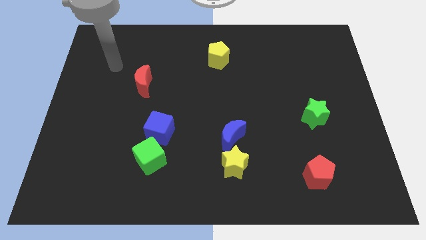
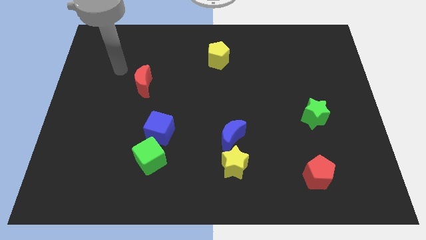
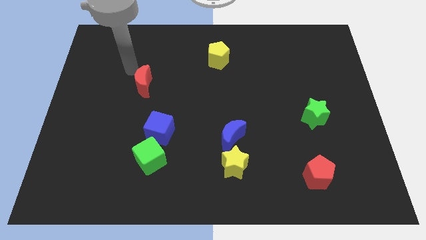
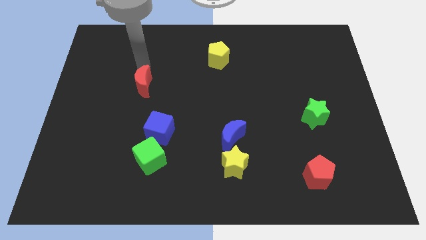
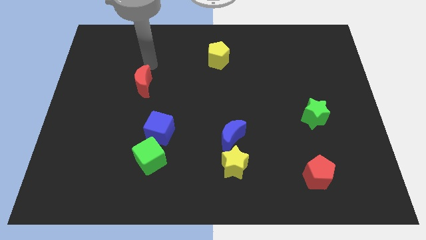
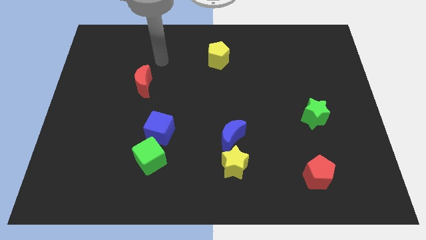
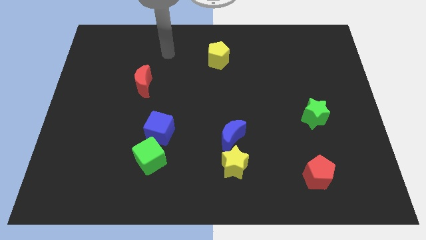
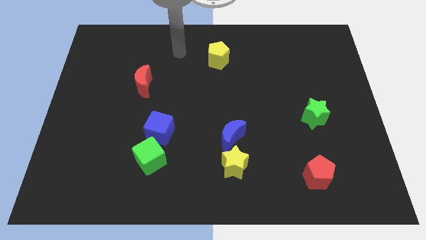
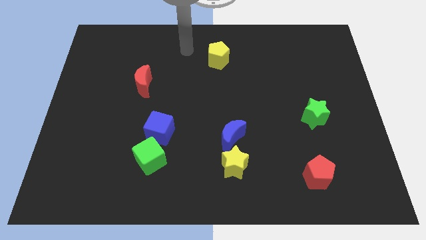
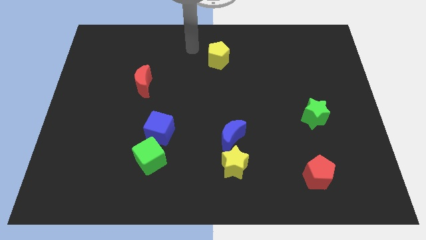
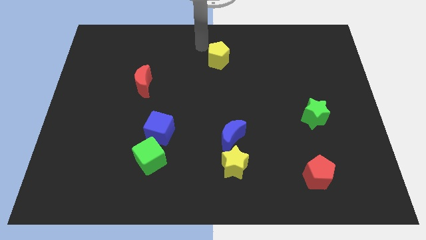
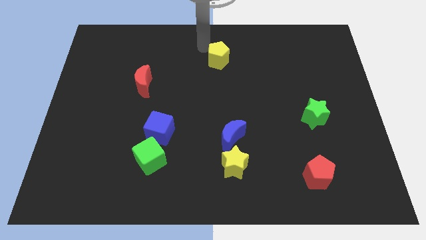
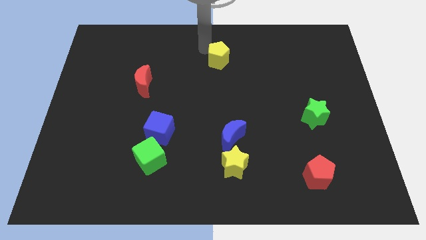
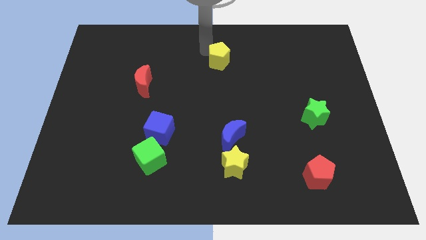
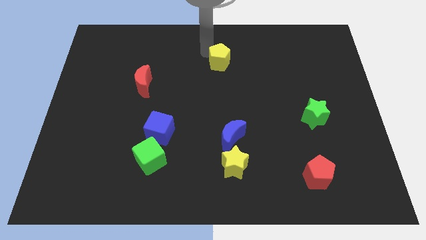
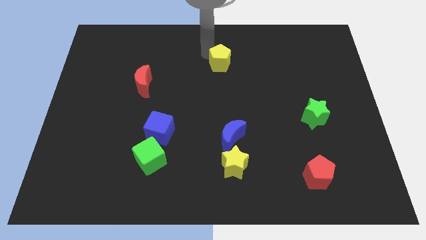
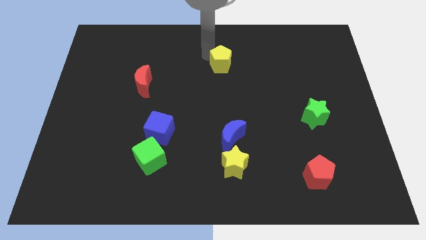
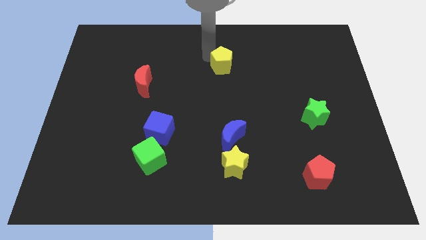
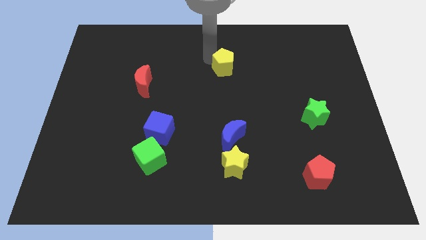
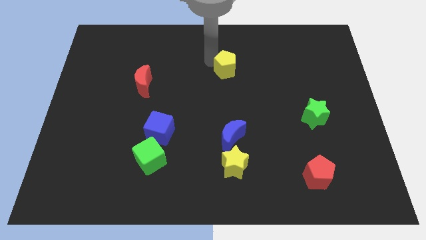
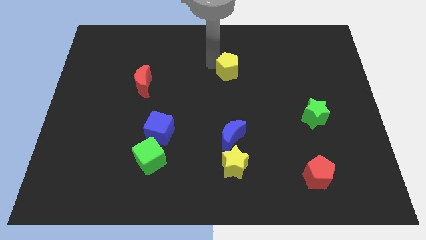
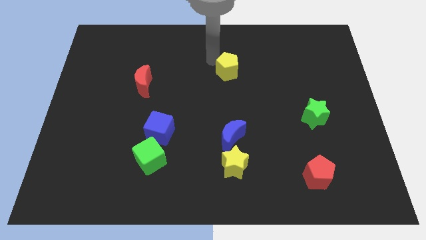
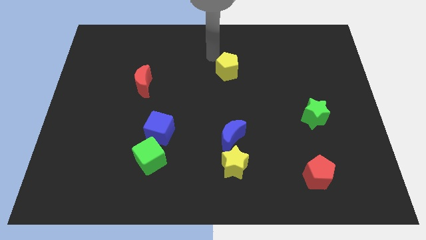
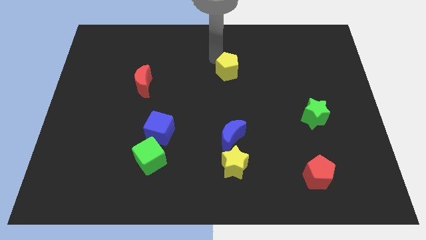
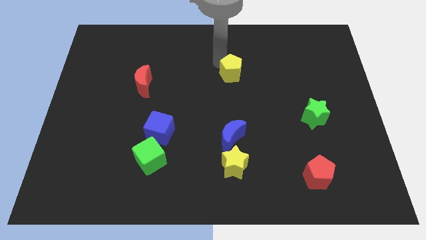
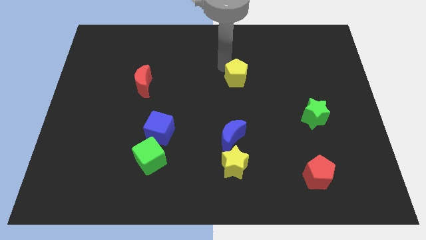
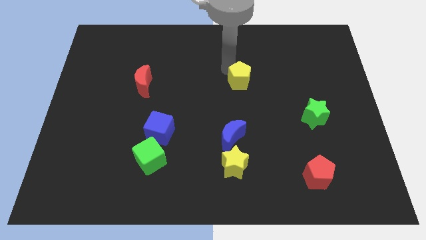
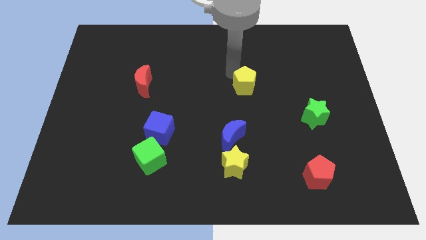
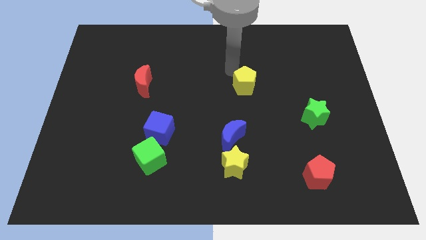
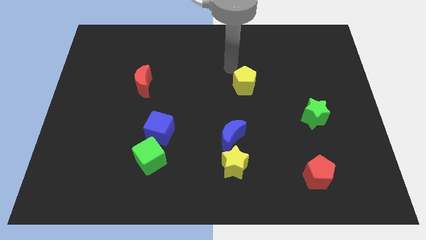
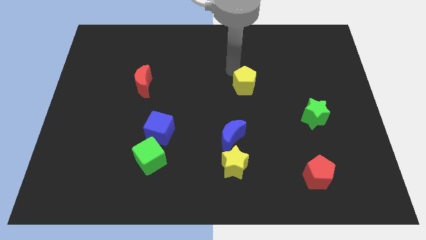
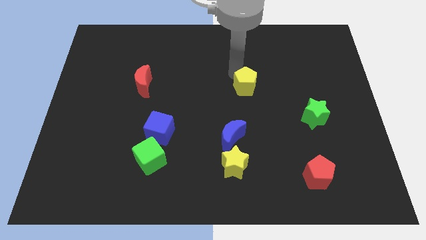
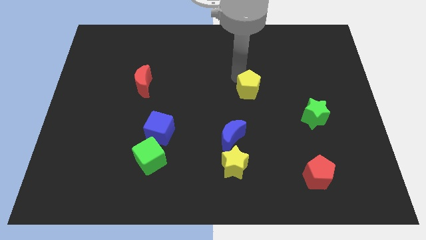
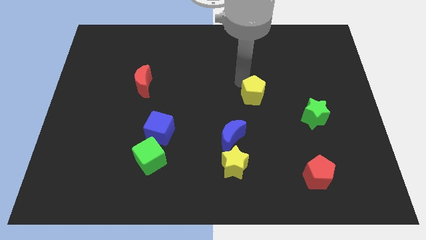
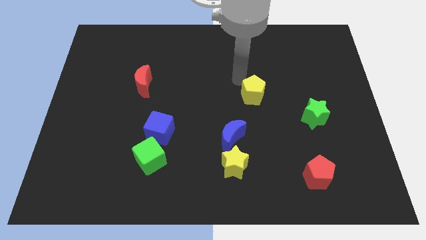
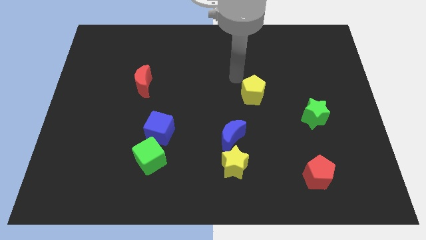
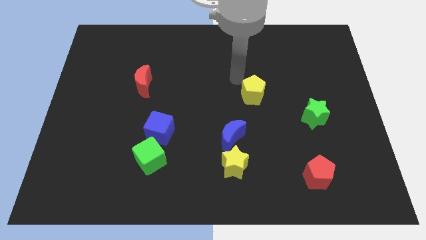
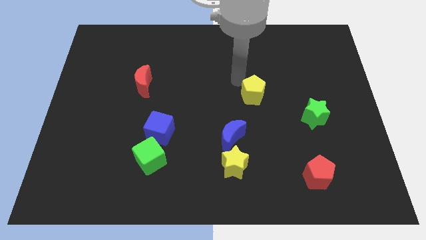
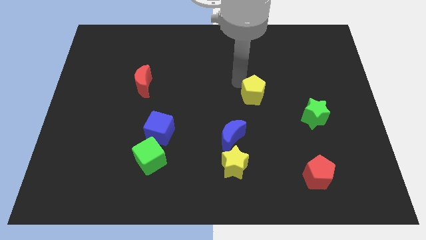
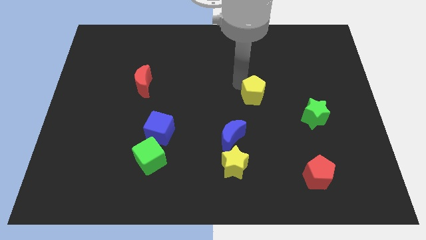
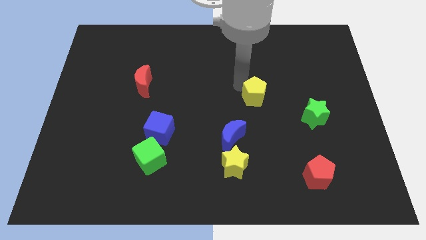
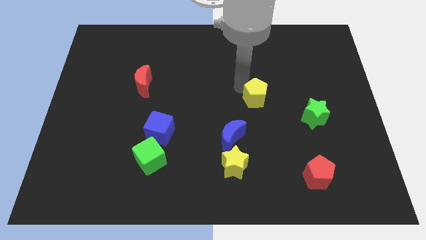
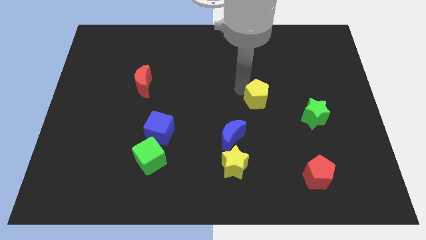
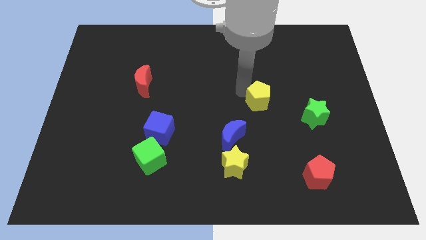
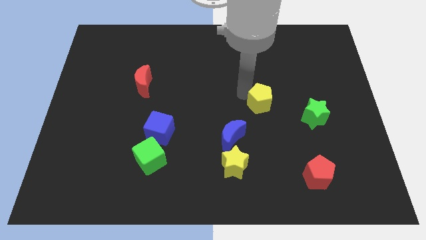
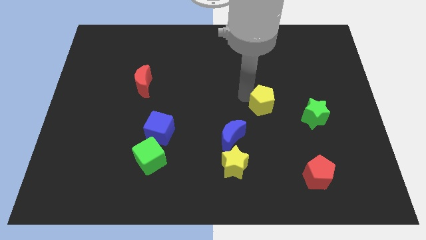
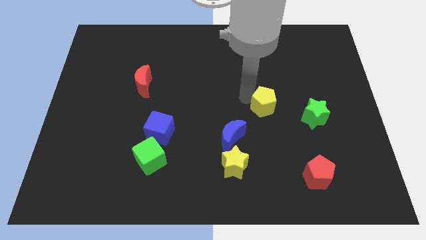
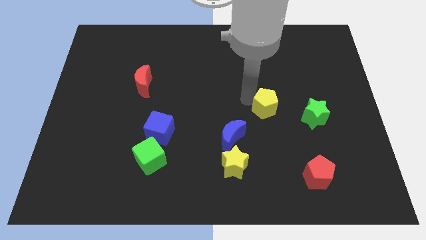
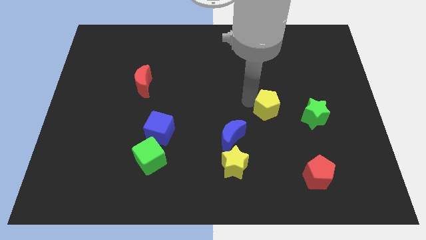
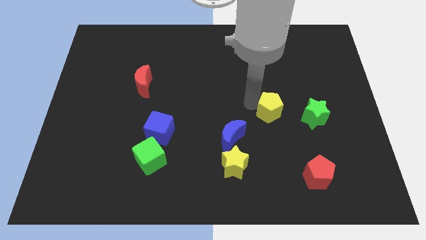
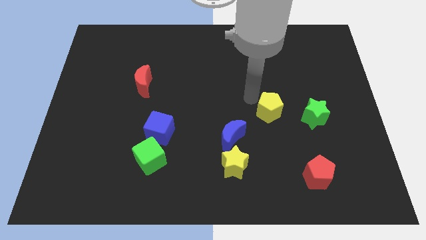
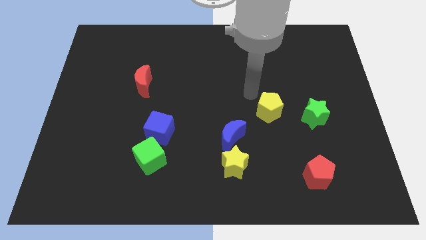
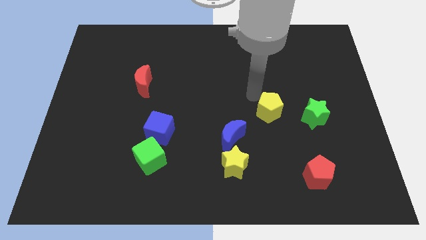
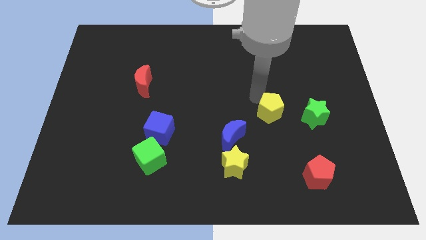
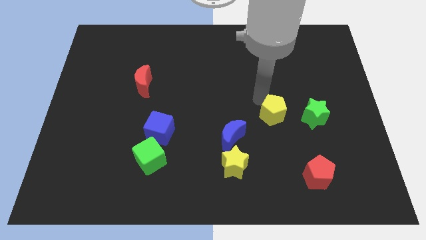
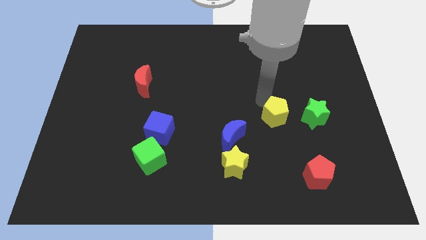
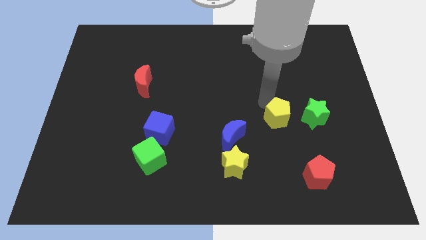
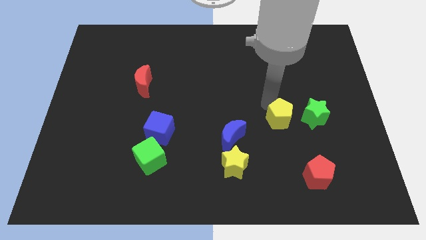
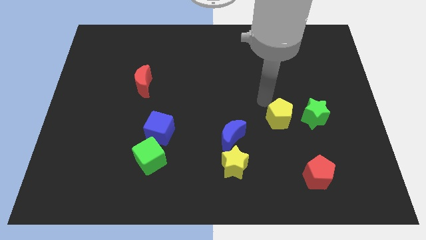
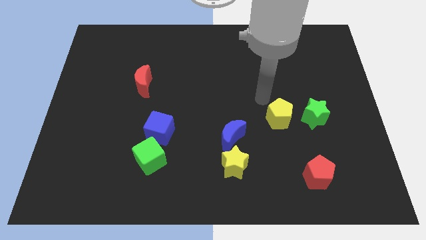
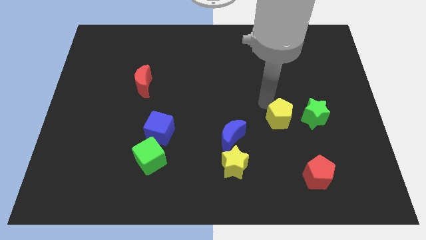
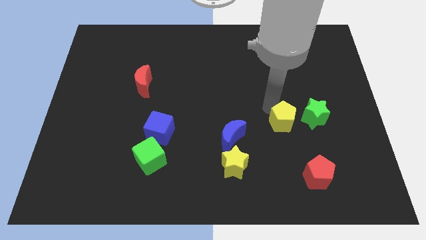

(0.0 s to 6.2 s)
push the yellow pentagon to the bottom left side of the green star

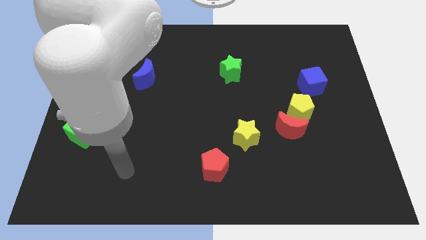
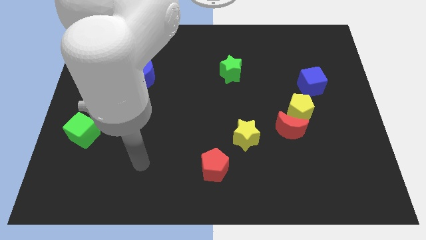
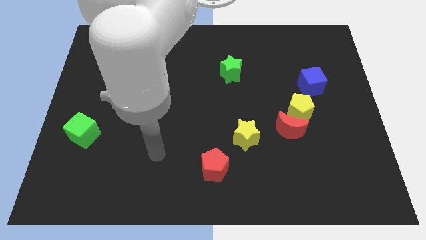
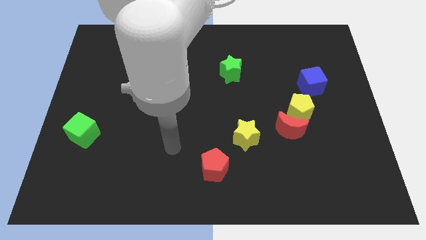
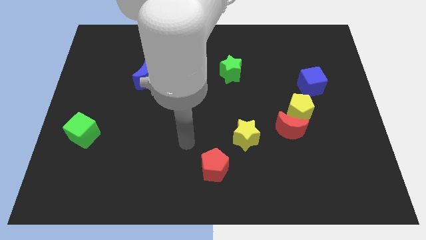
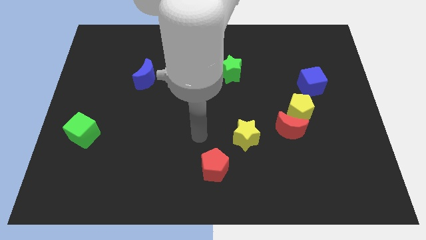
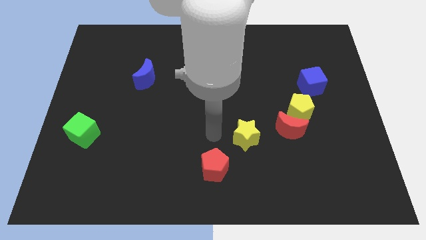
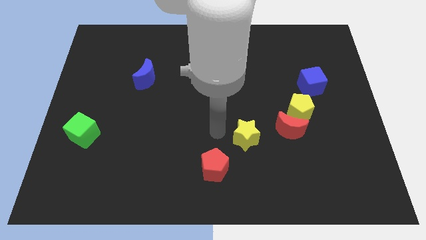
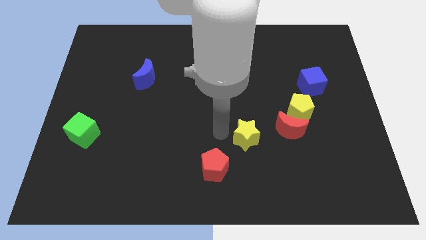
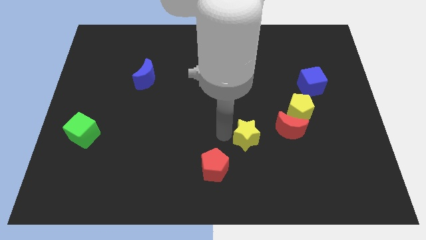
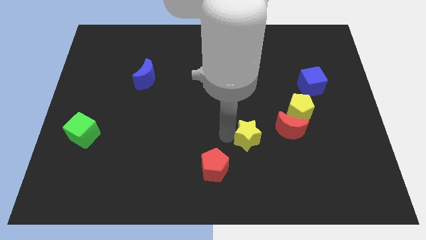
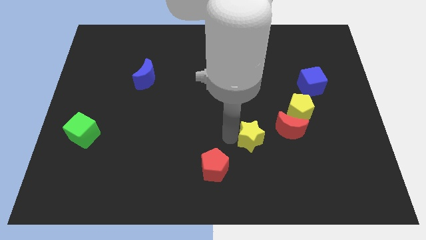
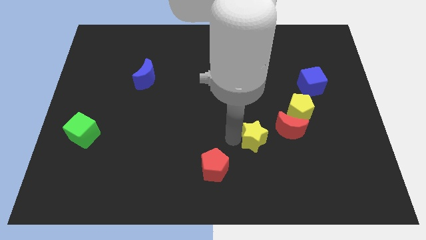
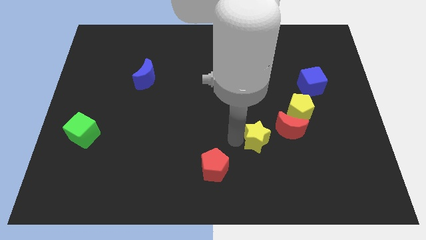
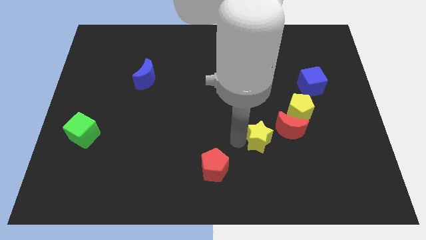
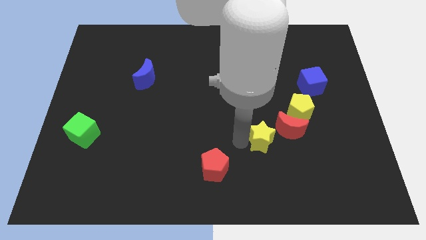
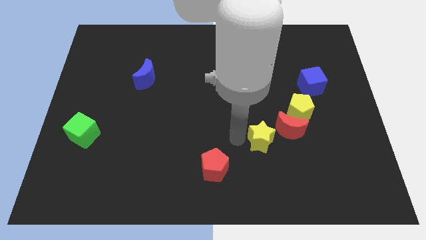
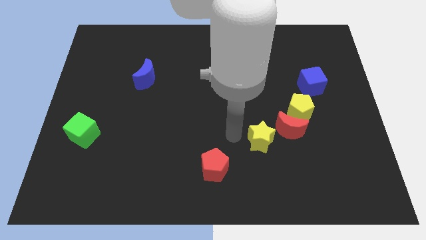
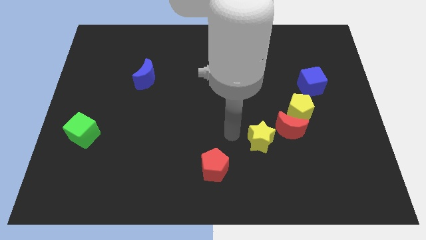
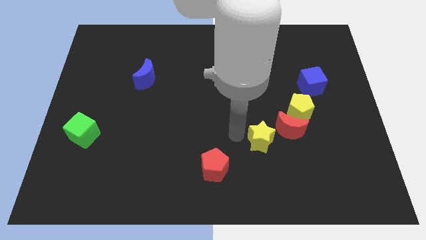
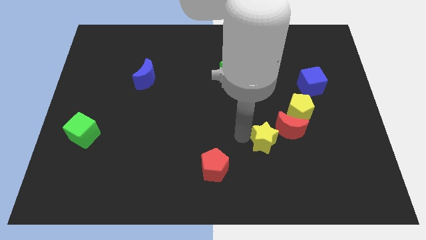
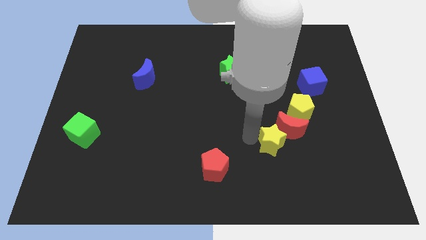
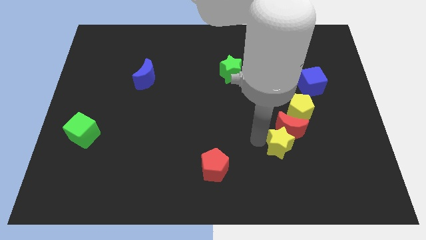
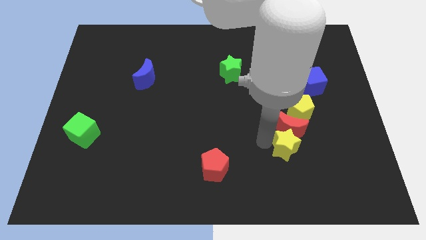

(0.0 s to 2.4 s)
push the yellow star diagonally down and to the right of the red moon
